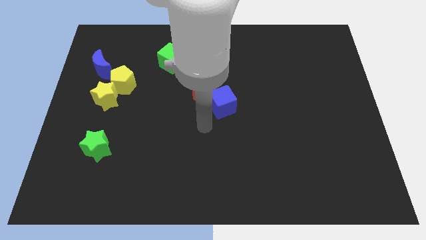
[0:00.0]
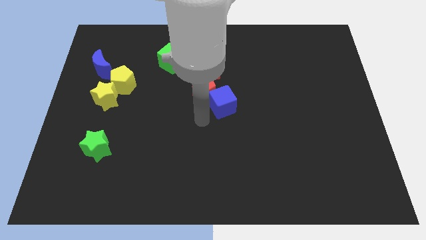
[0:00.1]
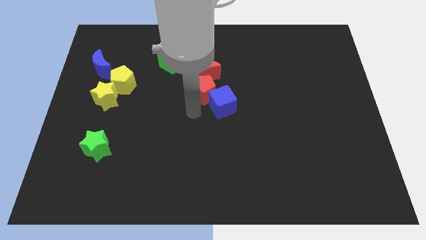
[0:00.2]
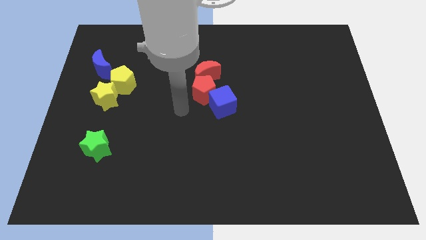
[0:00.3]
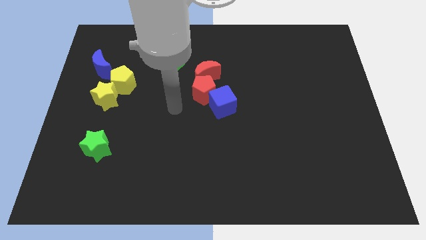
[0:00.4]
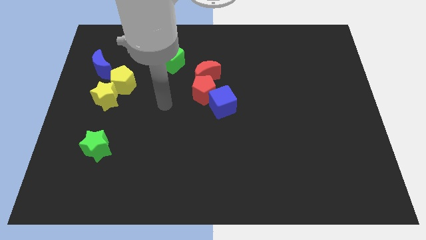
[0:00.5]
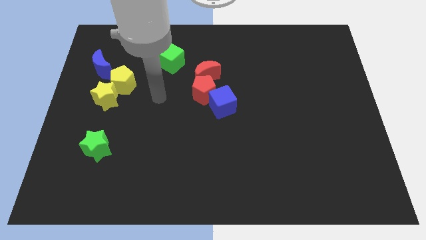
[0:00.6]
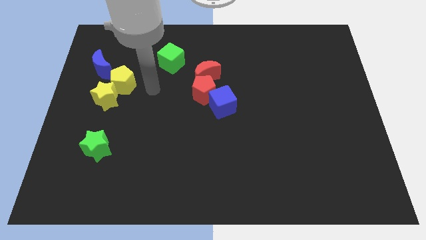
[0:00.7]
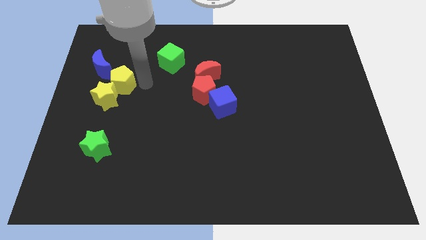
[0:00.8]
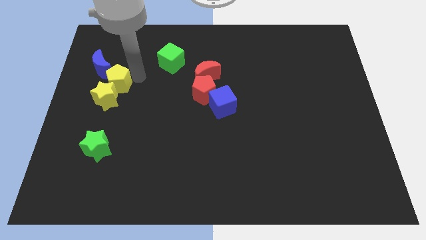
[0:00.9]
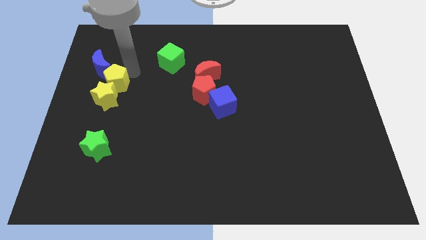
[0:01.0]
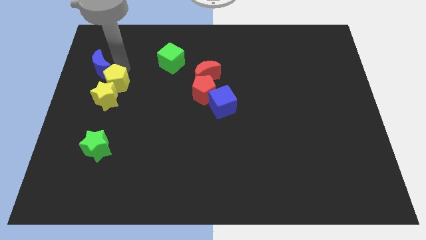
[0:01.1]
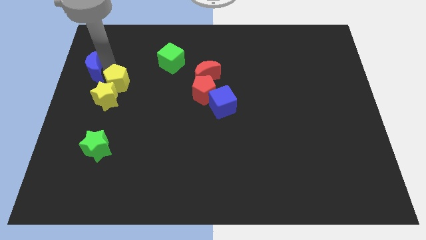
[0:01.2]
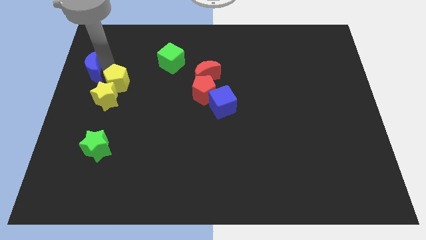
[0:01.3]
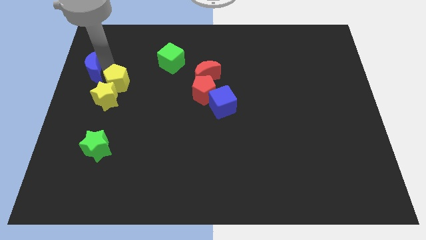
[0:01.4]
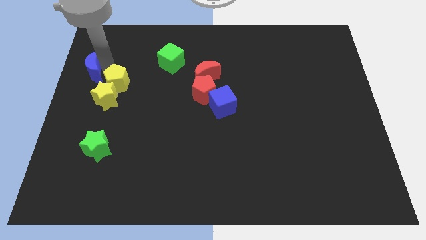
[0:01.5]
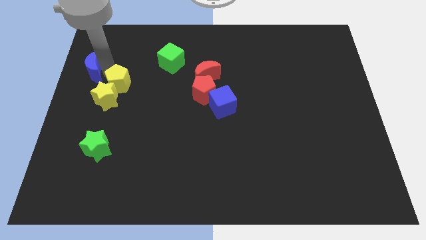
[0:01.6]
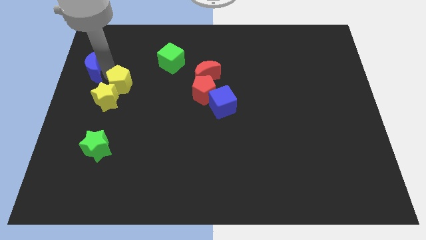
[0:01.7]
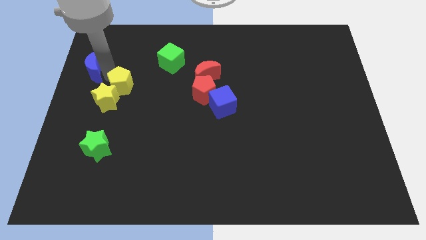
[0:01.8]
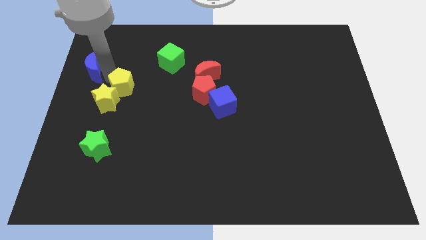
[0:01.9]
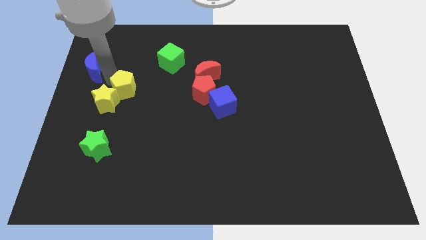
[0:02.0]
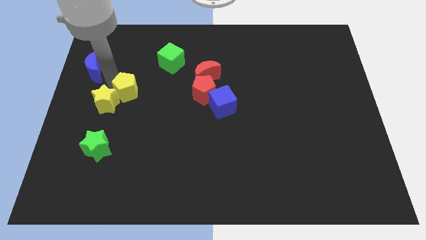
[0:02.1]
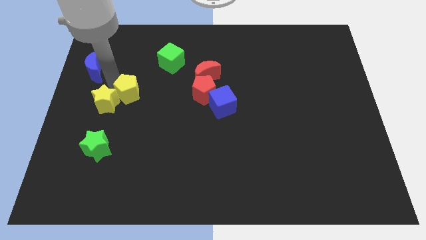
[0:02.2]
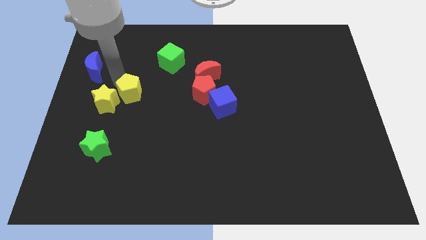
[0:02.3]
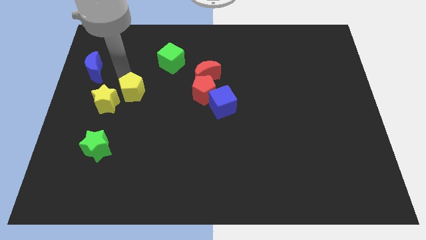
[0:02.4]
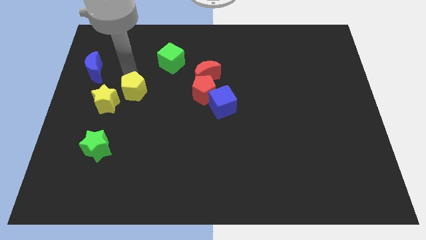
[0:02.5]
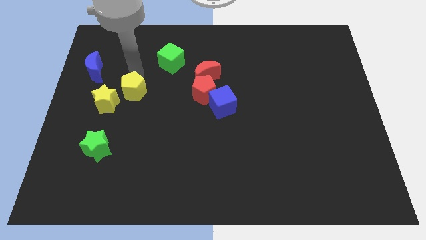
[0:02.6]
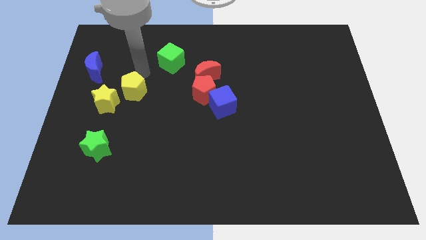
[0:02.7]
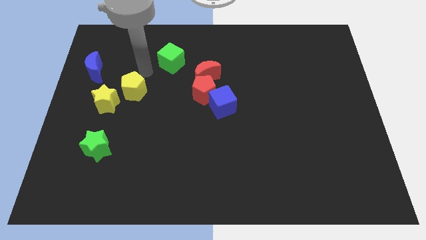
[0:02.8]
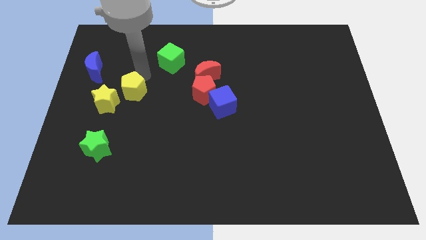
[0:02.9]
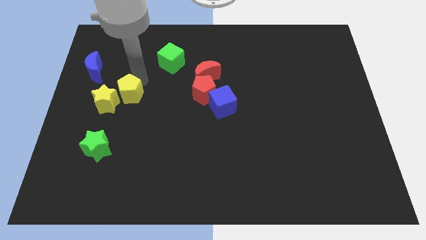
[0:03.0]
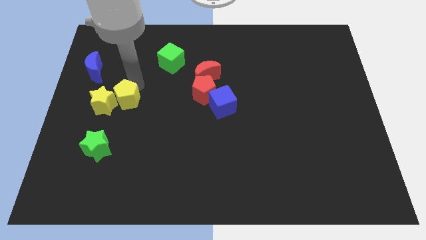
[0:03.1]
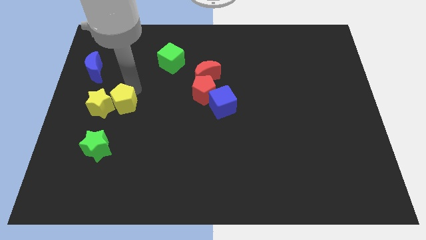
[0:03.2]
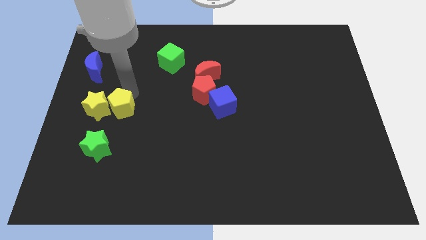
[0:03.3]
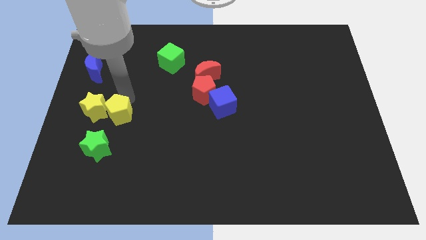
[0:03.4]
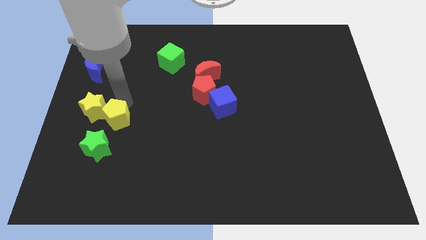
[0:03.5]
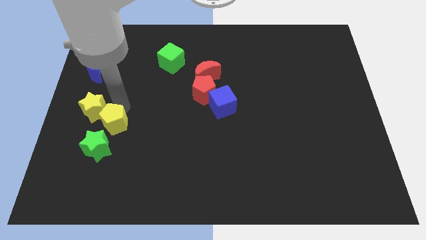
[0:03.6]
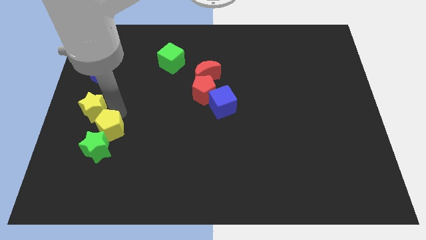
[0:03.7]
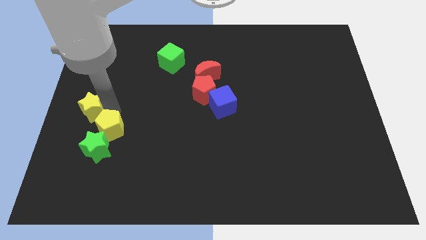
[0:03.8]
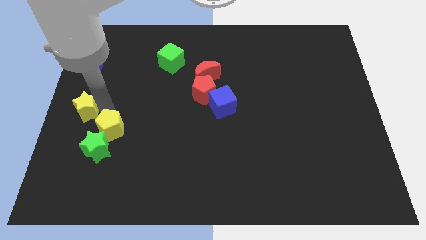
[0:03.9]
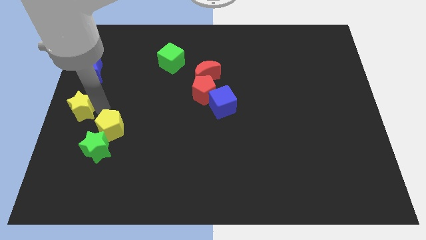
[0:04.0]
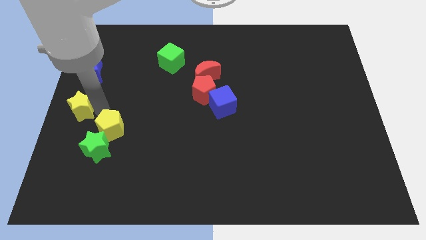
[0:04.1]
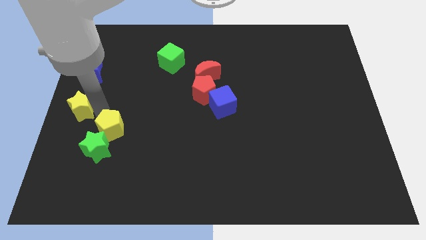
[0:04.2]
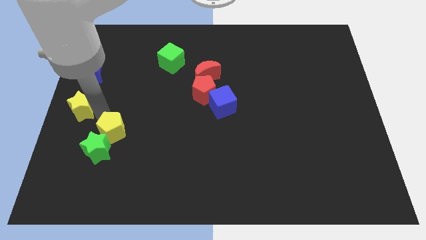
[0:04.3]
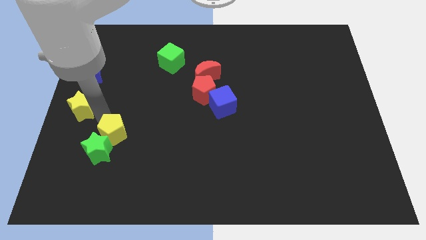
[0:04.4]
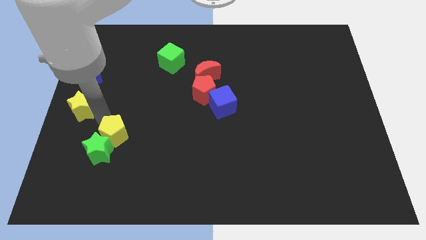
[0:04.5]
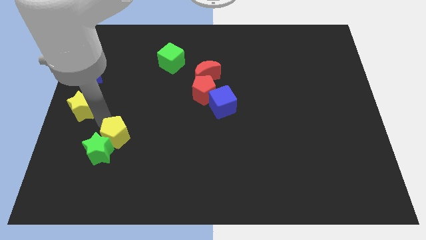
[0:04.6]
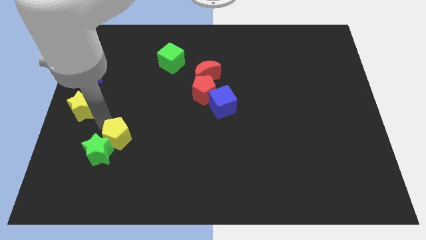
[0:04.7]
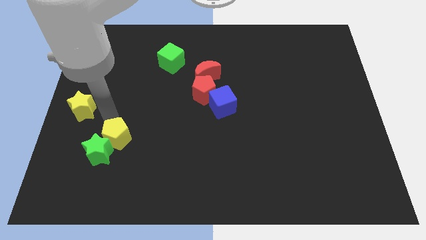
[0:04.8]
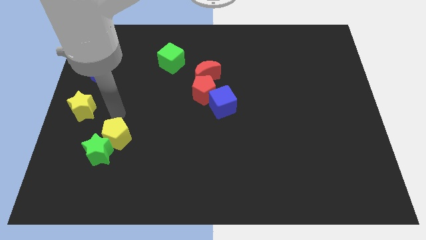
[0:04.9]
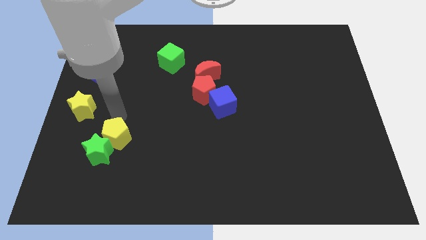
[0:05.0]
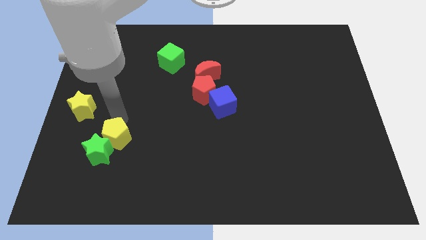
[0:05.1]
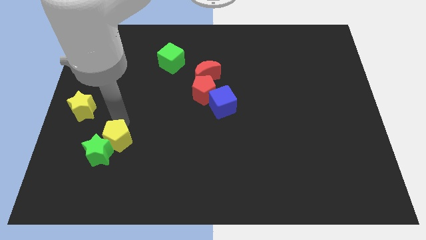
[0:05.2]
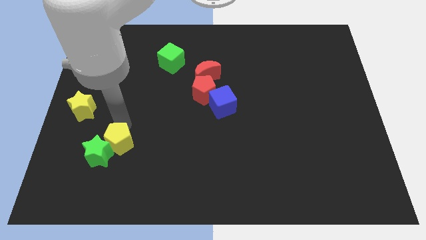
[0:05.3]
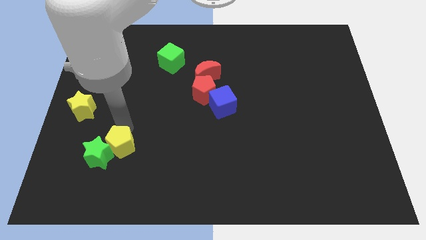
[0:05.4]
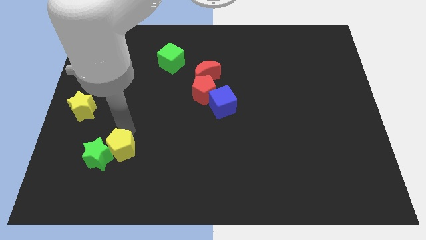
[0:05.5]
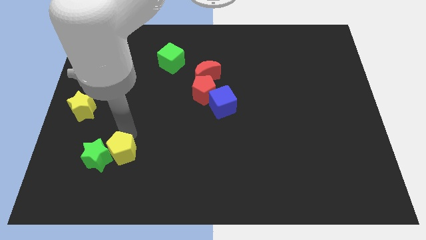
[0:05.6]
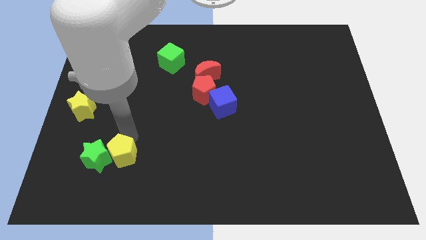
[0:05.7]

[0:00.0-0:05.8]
slide the yellow pentagon to the bottom right side of the green star
